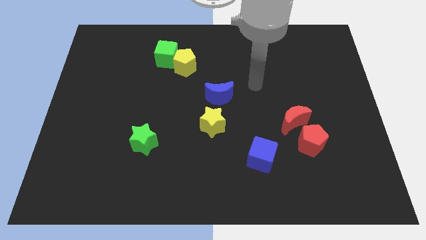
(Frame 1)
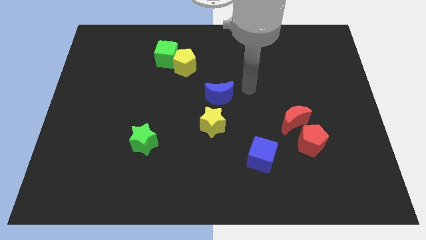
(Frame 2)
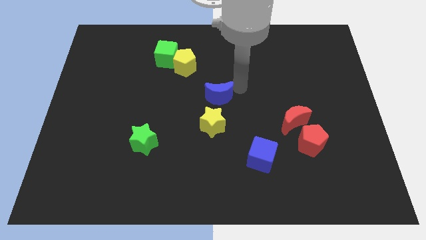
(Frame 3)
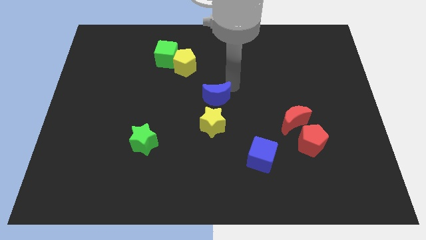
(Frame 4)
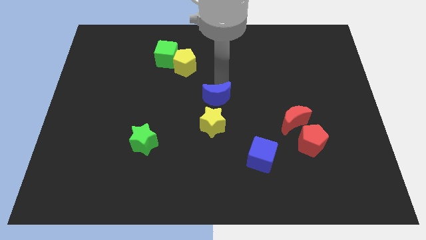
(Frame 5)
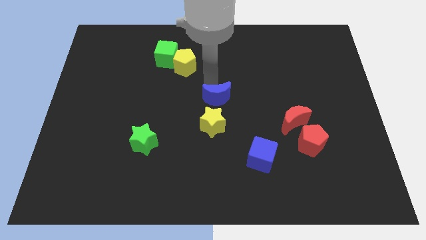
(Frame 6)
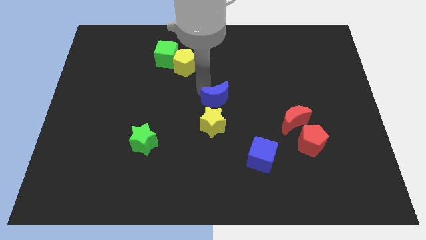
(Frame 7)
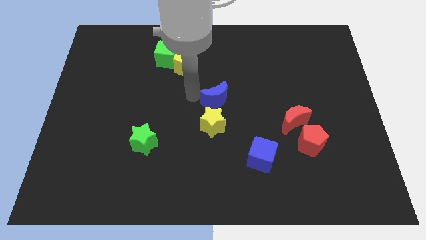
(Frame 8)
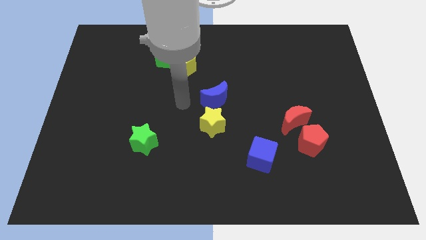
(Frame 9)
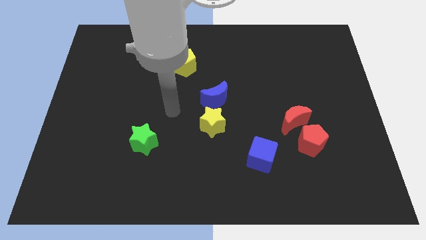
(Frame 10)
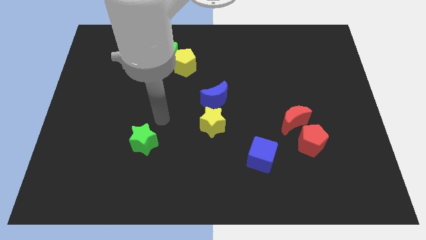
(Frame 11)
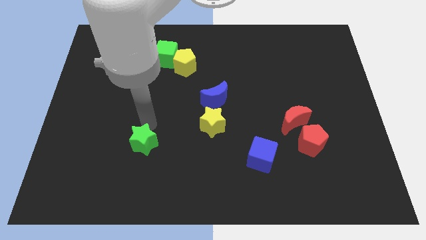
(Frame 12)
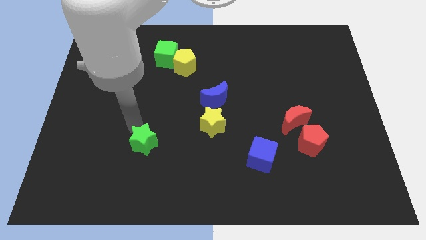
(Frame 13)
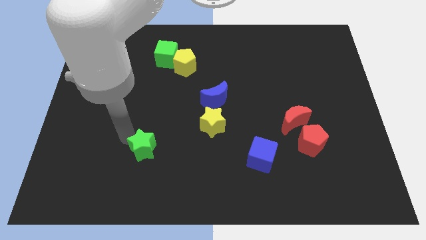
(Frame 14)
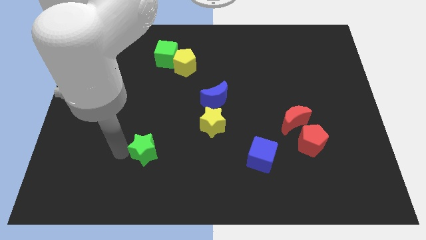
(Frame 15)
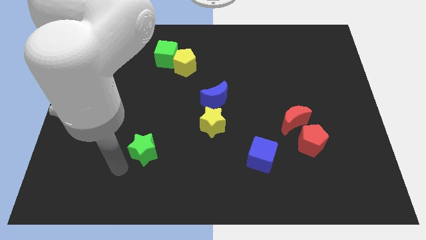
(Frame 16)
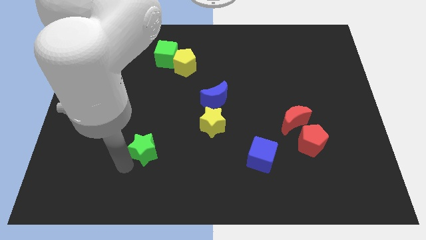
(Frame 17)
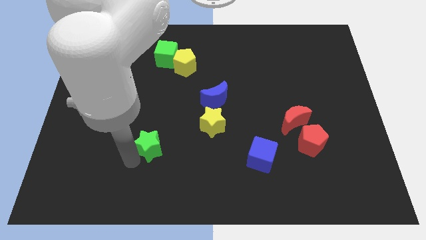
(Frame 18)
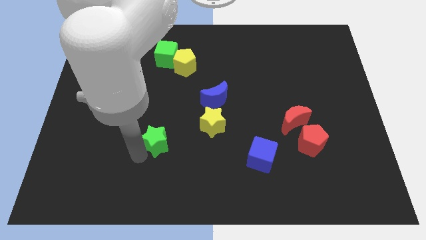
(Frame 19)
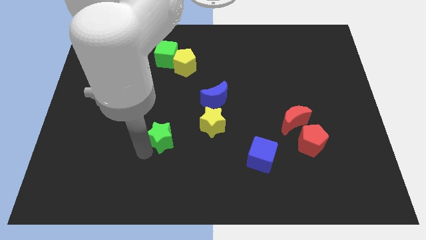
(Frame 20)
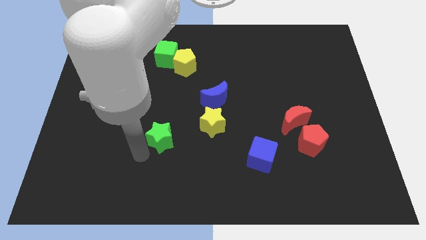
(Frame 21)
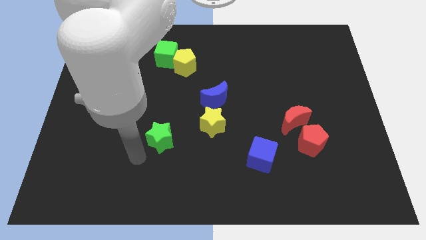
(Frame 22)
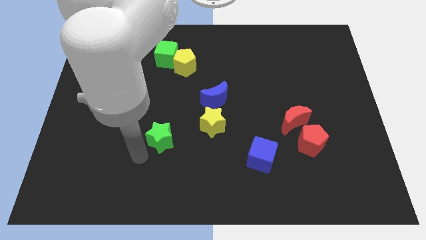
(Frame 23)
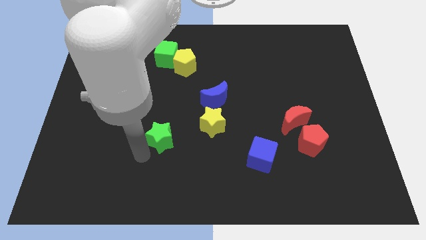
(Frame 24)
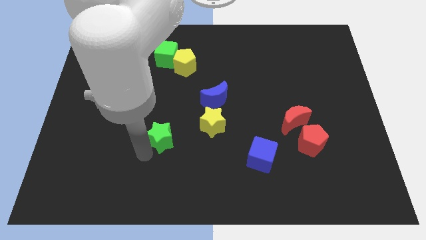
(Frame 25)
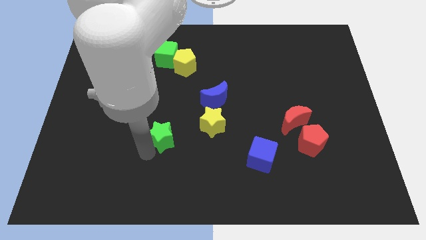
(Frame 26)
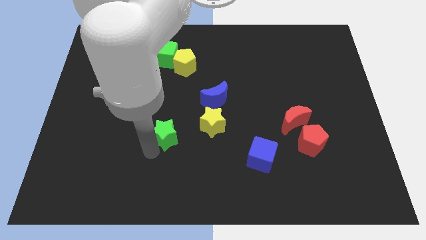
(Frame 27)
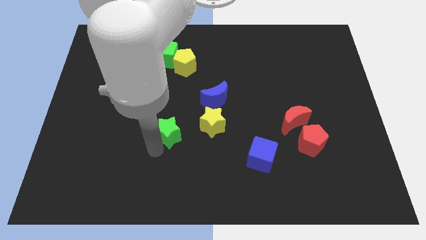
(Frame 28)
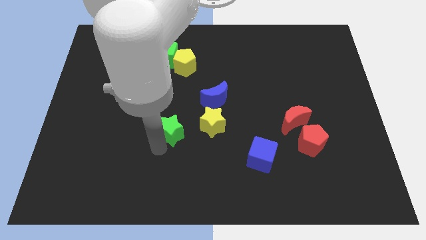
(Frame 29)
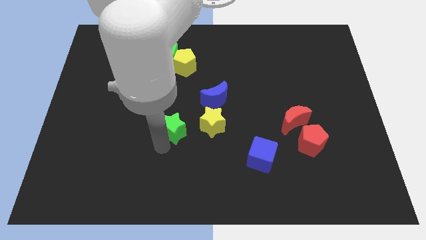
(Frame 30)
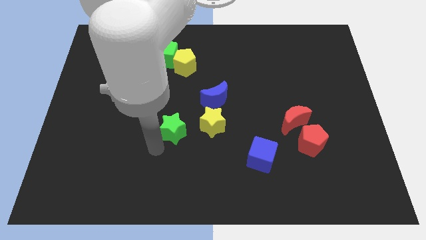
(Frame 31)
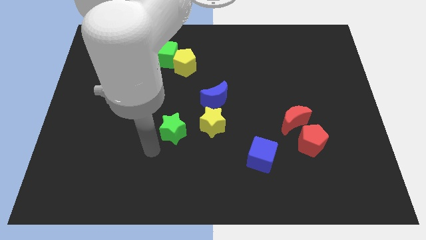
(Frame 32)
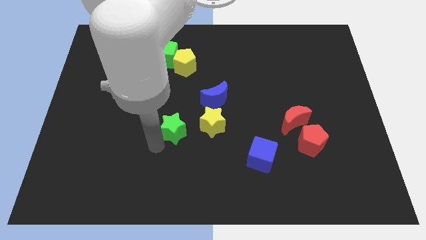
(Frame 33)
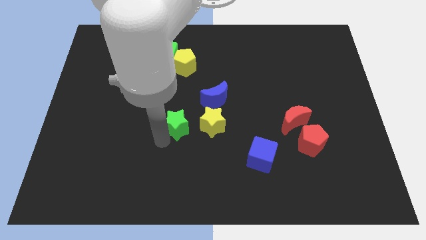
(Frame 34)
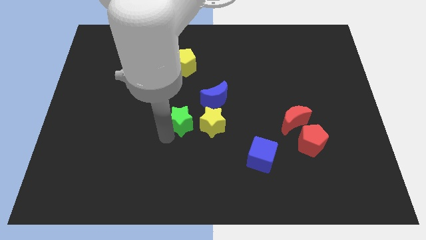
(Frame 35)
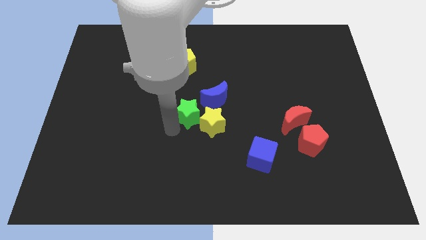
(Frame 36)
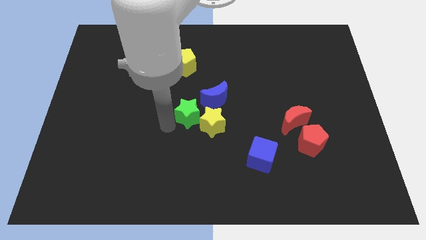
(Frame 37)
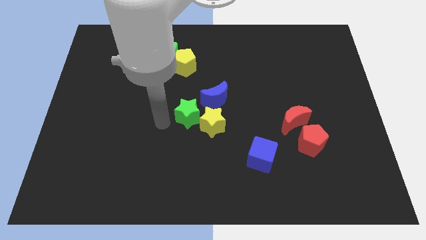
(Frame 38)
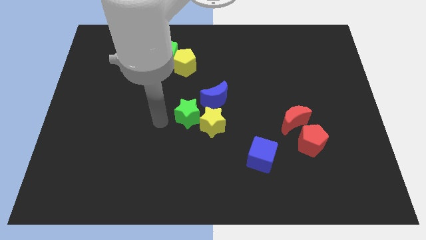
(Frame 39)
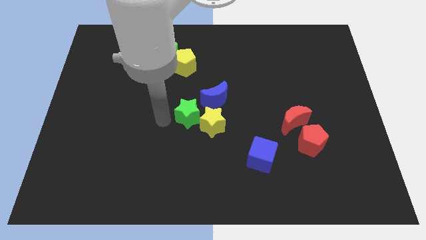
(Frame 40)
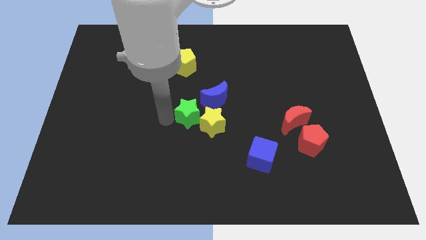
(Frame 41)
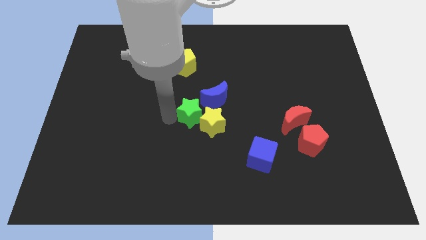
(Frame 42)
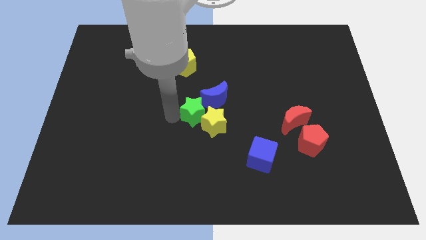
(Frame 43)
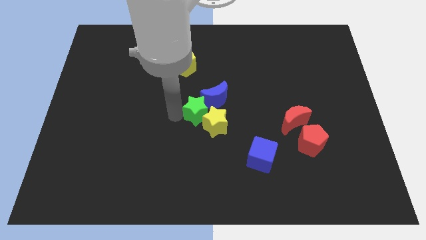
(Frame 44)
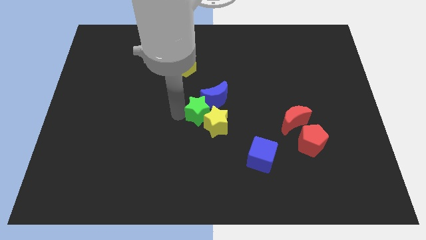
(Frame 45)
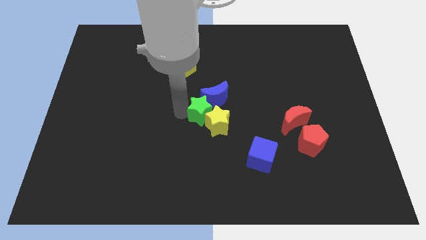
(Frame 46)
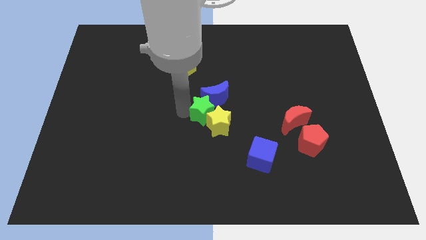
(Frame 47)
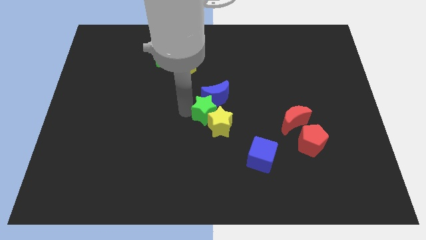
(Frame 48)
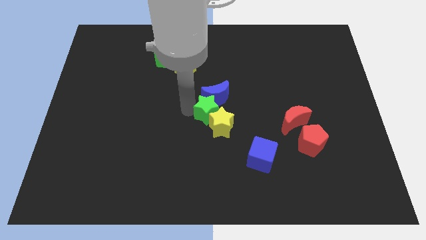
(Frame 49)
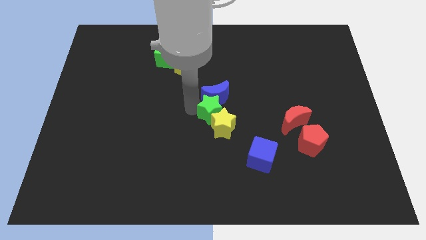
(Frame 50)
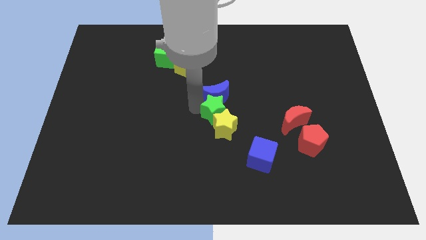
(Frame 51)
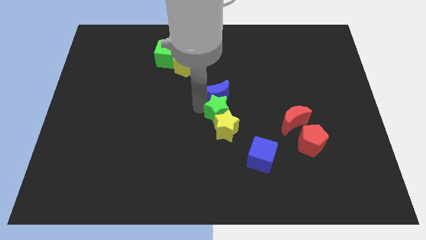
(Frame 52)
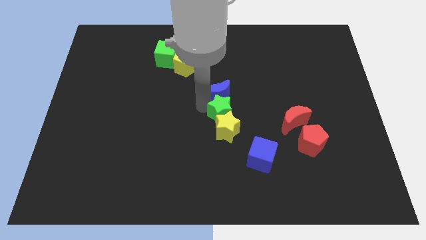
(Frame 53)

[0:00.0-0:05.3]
put the green star to the top right of the yellow star
